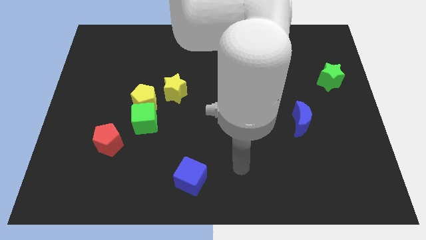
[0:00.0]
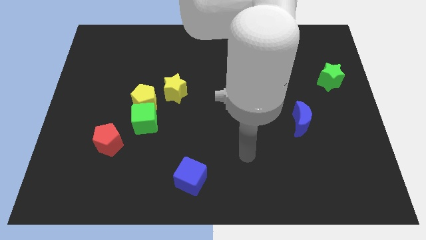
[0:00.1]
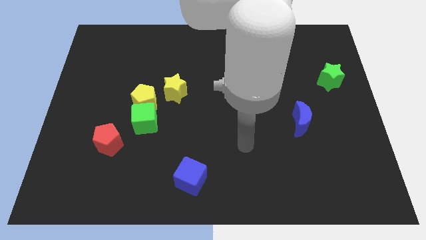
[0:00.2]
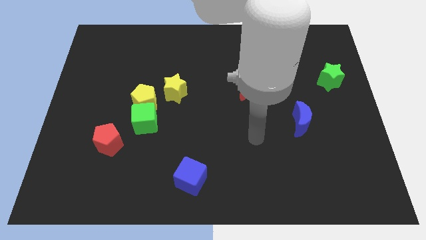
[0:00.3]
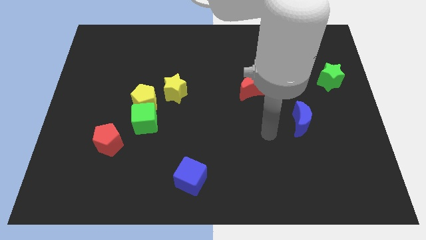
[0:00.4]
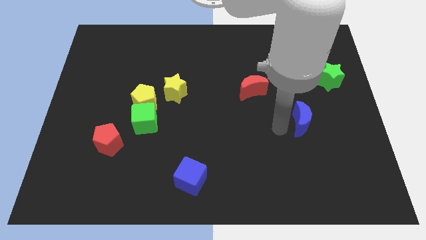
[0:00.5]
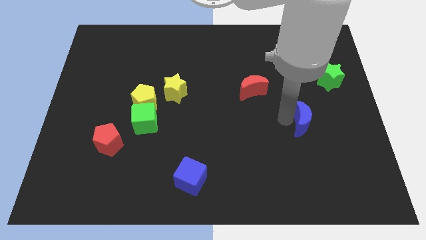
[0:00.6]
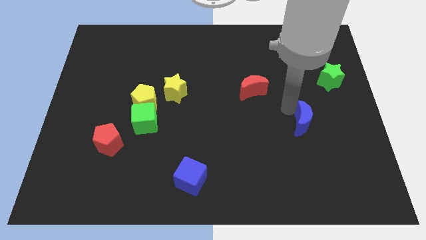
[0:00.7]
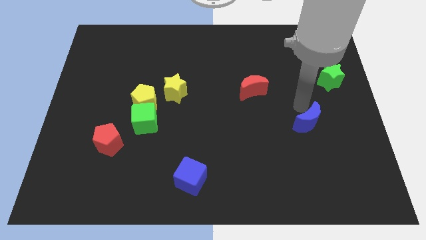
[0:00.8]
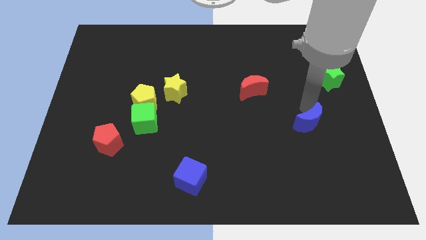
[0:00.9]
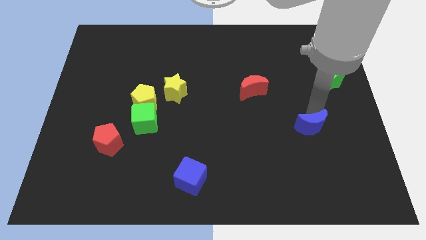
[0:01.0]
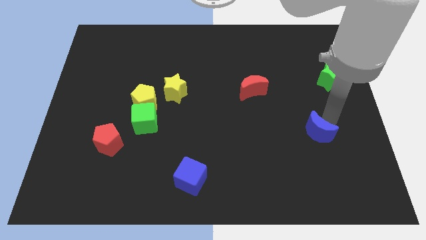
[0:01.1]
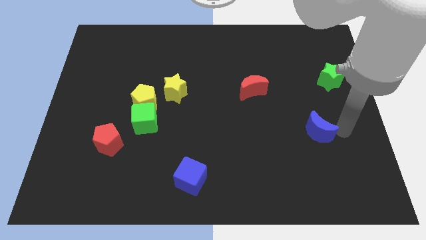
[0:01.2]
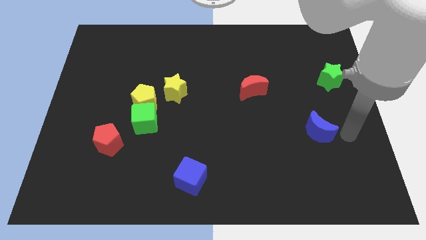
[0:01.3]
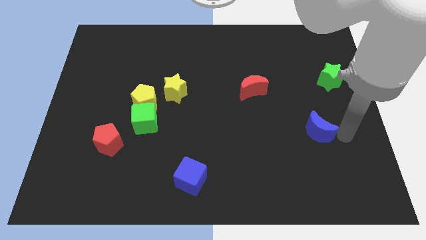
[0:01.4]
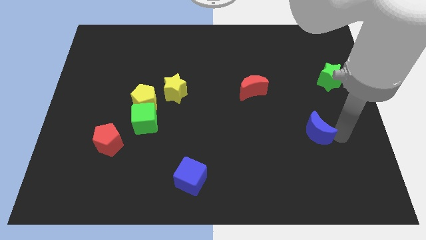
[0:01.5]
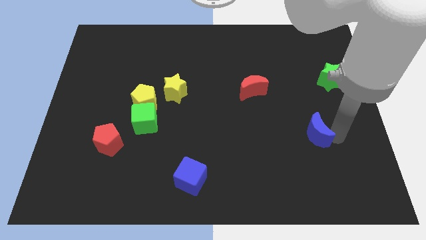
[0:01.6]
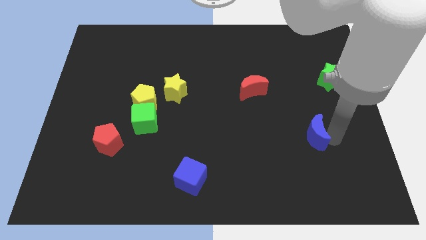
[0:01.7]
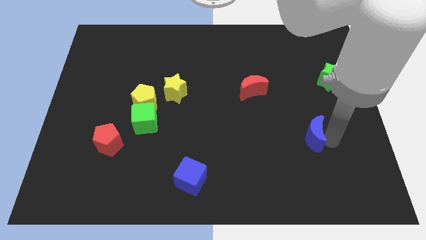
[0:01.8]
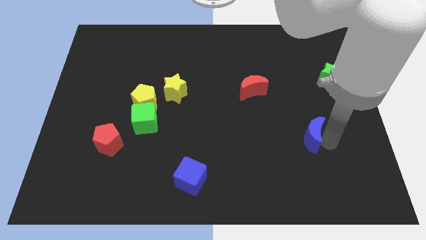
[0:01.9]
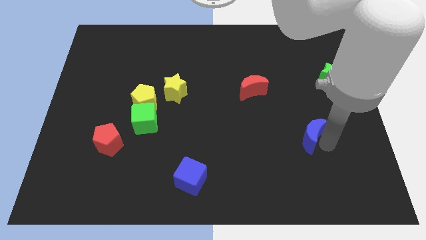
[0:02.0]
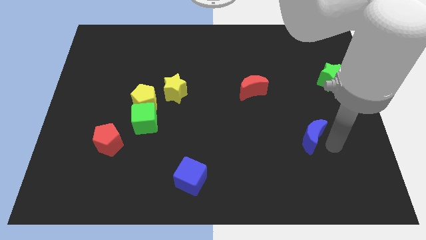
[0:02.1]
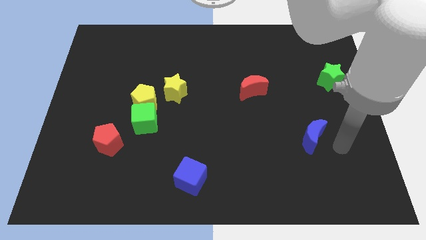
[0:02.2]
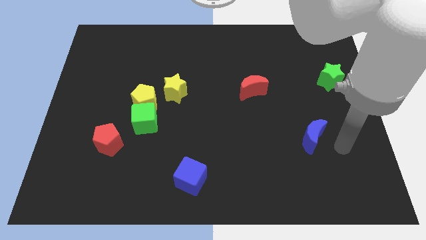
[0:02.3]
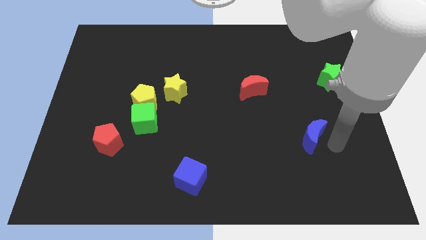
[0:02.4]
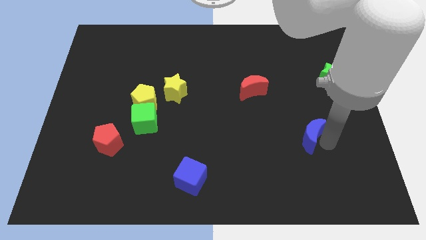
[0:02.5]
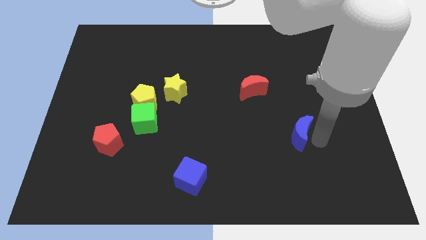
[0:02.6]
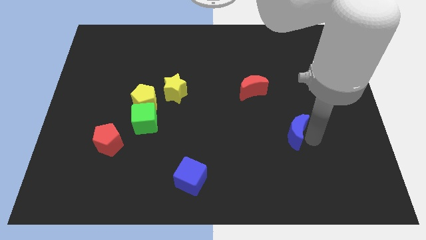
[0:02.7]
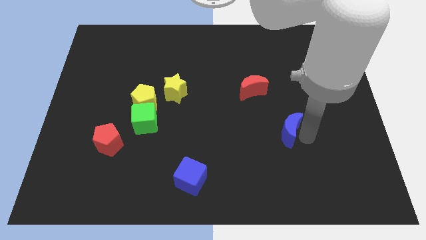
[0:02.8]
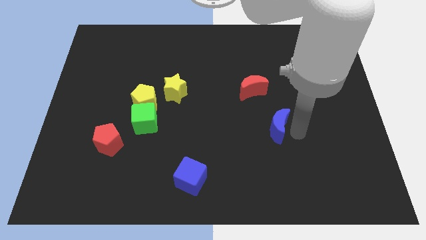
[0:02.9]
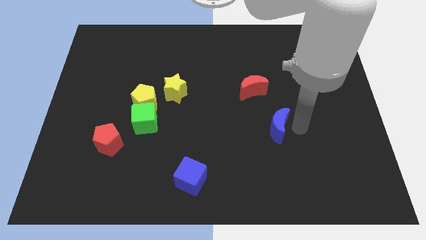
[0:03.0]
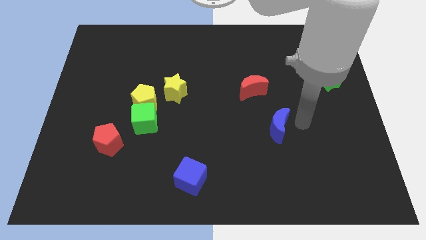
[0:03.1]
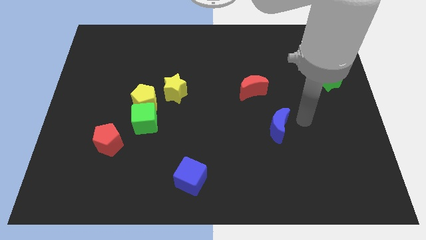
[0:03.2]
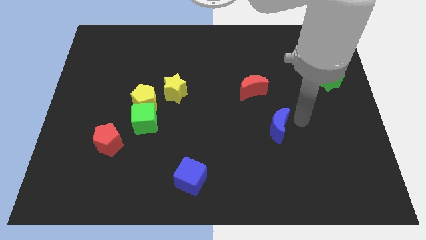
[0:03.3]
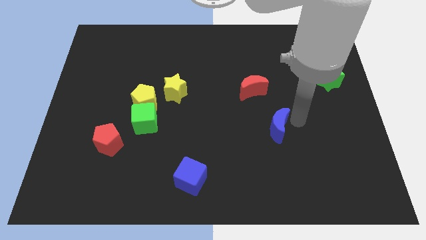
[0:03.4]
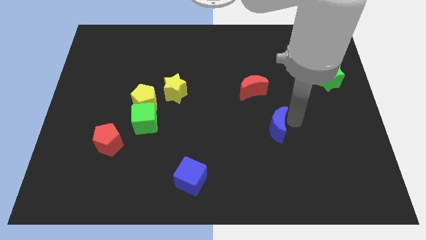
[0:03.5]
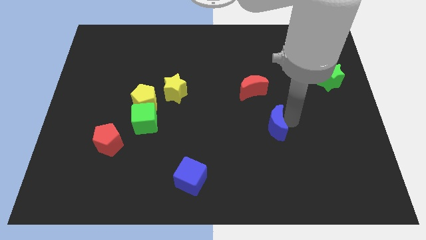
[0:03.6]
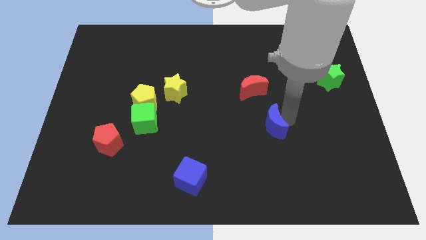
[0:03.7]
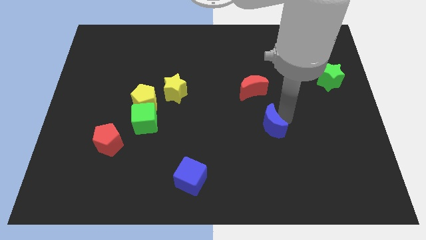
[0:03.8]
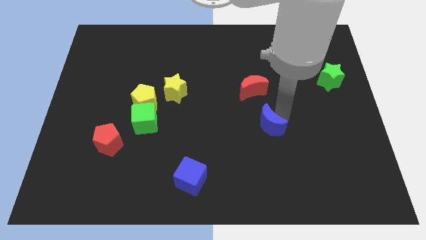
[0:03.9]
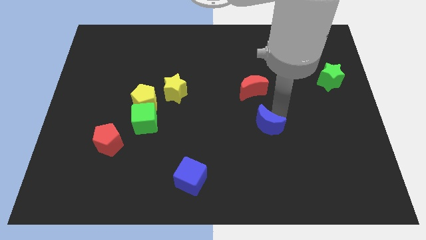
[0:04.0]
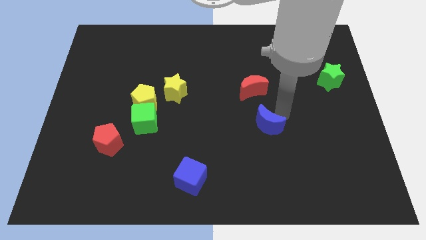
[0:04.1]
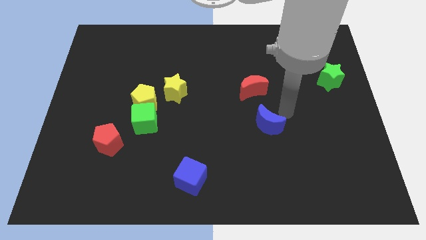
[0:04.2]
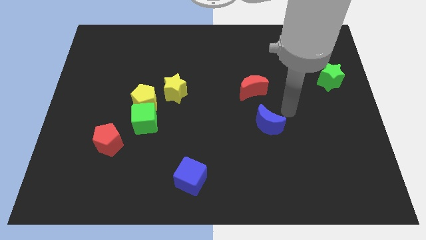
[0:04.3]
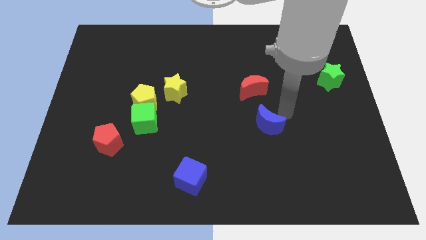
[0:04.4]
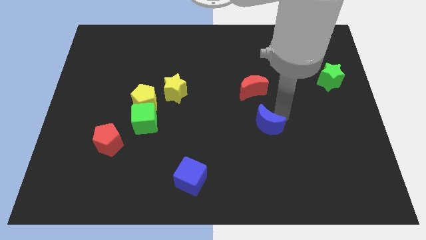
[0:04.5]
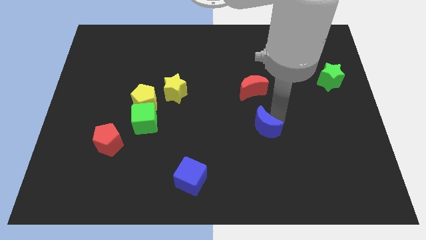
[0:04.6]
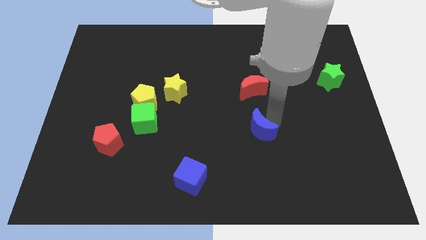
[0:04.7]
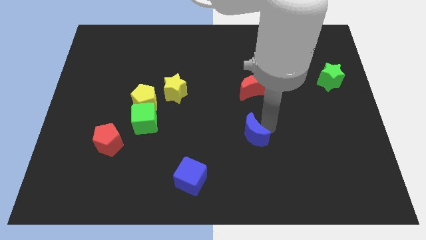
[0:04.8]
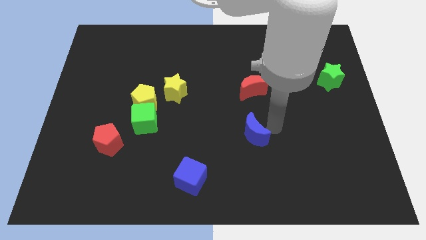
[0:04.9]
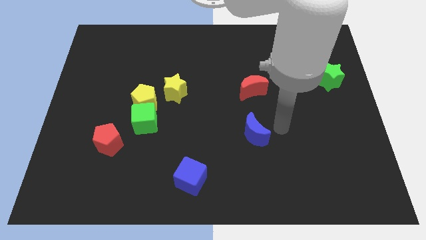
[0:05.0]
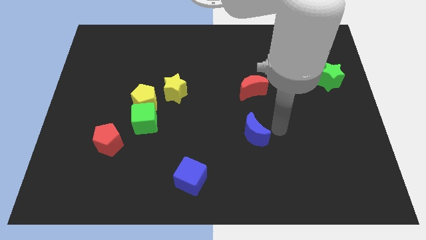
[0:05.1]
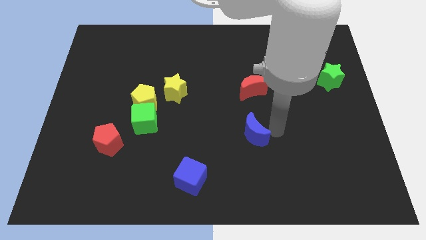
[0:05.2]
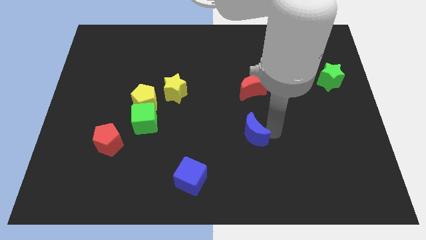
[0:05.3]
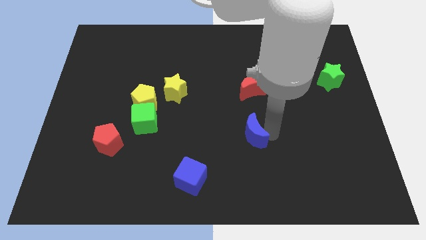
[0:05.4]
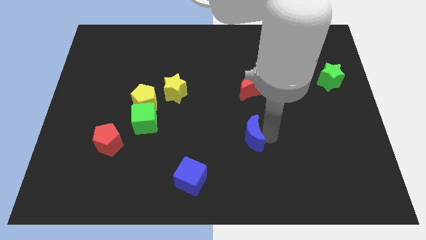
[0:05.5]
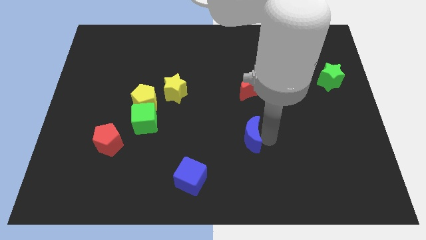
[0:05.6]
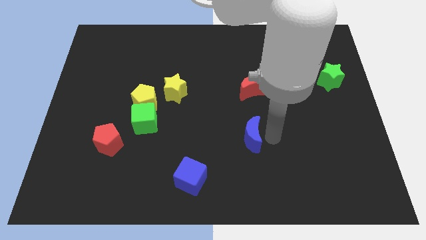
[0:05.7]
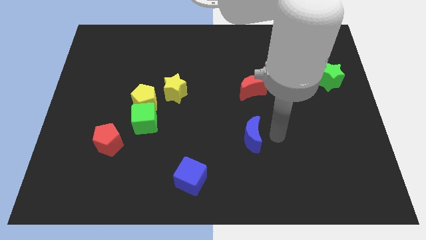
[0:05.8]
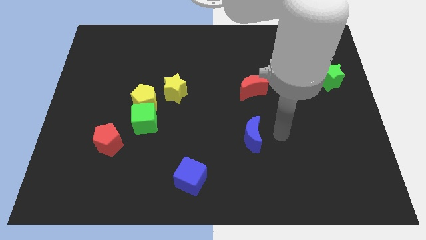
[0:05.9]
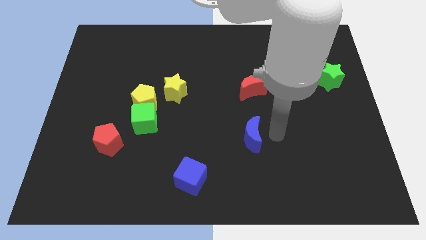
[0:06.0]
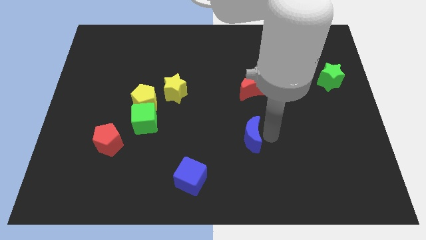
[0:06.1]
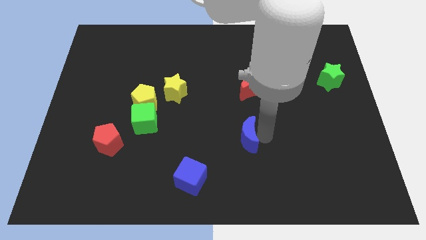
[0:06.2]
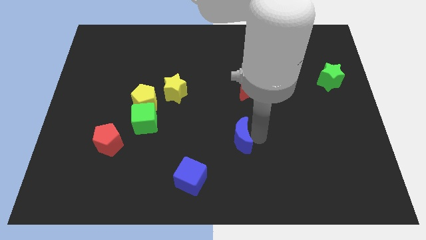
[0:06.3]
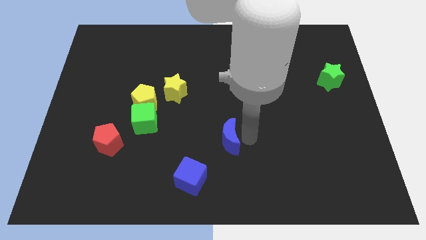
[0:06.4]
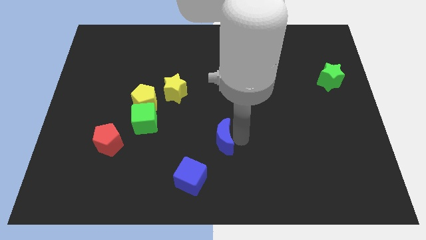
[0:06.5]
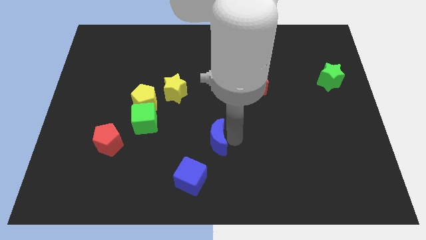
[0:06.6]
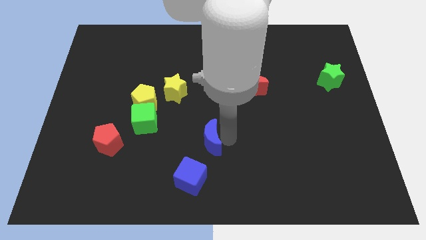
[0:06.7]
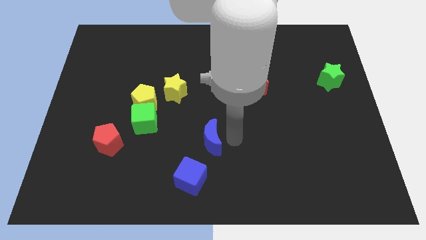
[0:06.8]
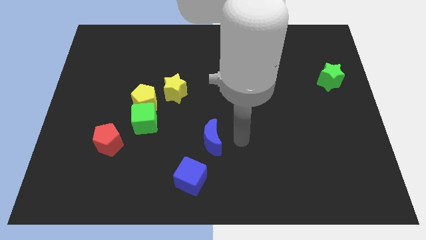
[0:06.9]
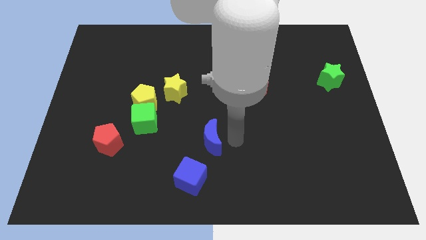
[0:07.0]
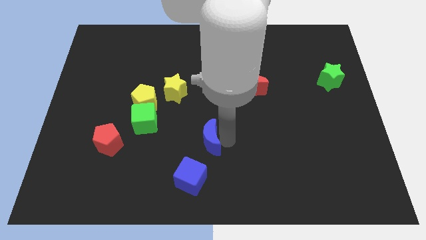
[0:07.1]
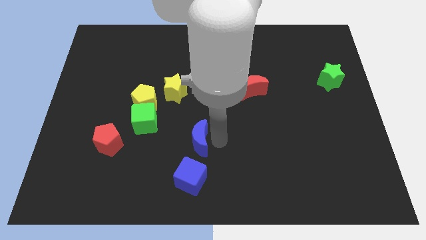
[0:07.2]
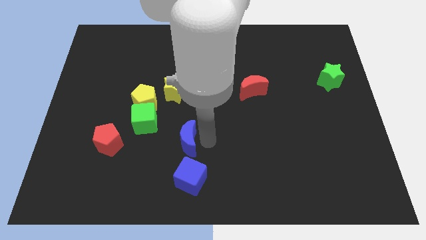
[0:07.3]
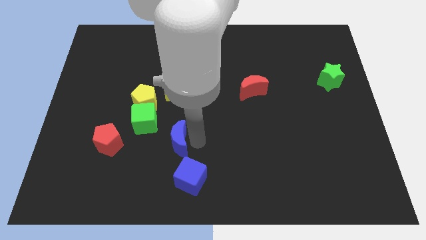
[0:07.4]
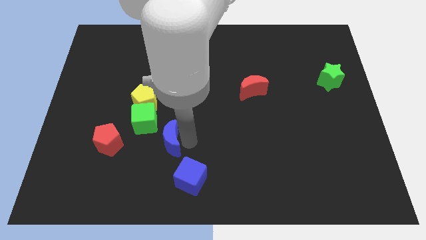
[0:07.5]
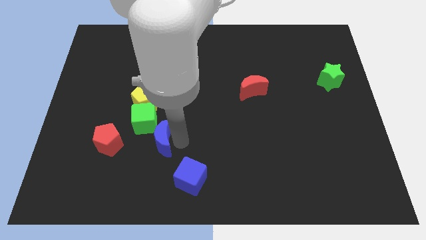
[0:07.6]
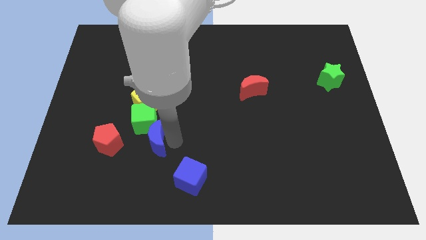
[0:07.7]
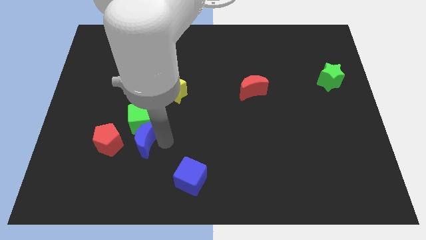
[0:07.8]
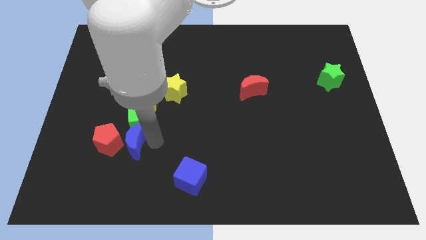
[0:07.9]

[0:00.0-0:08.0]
move the blue moon to the red pentagon
